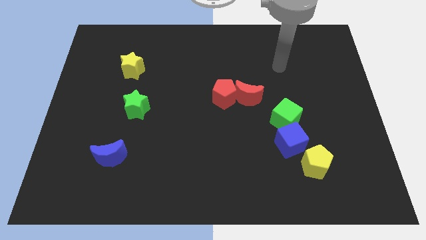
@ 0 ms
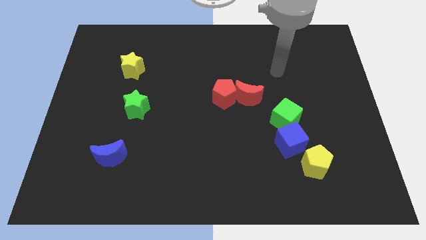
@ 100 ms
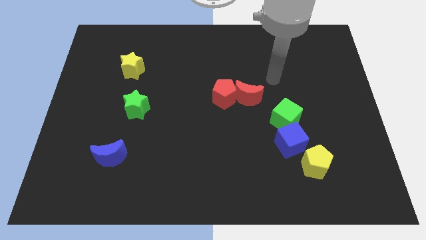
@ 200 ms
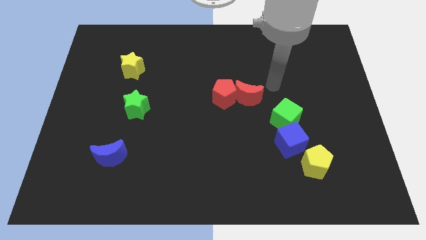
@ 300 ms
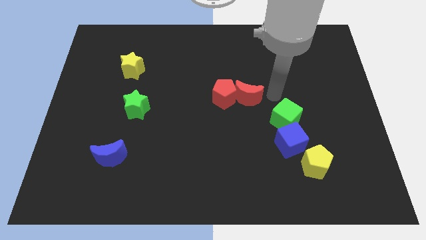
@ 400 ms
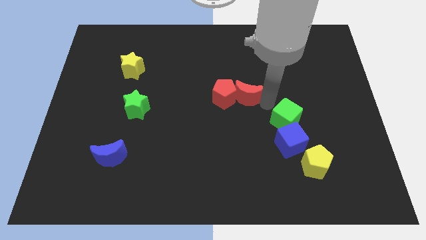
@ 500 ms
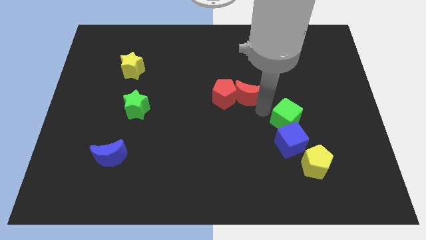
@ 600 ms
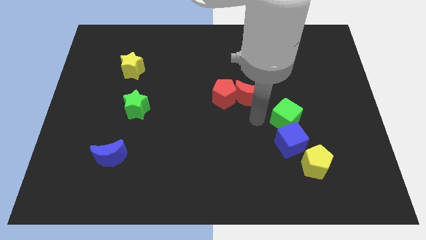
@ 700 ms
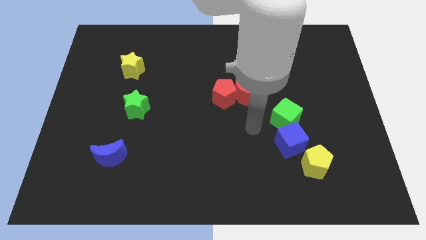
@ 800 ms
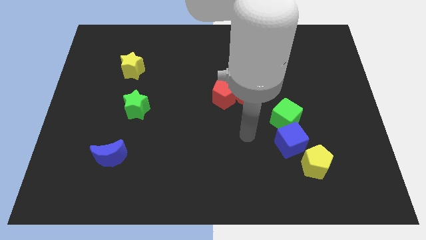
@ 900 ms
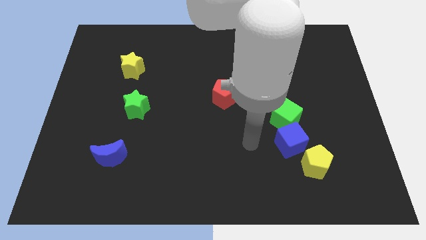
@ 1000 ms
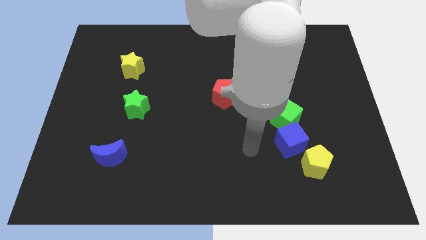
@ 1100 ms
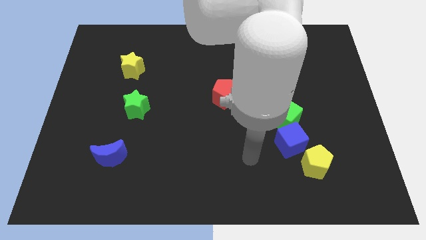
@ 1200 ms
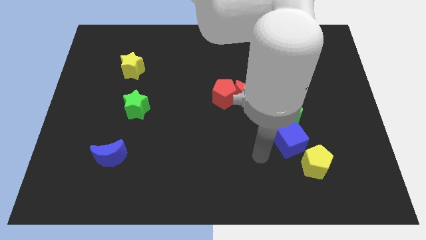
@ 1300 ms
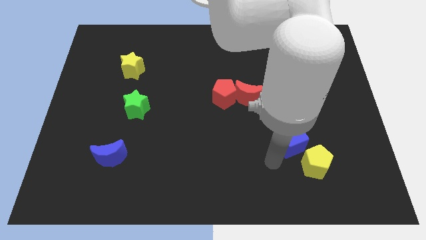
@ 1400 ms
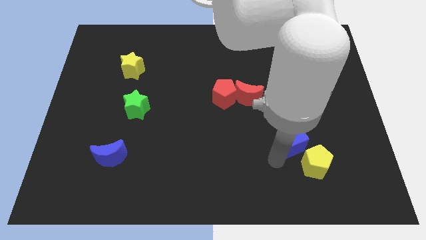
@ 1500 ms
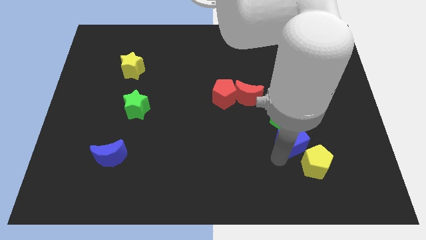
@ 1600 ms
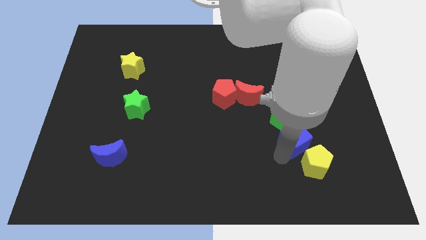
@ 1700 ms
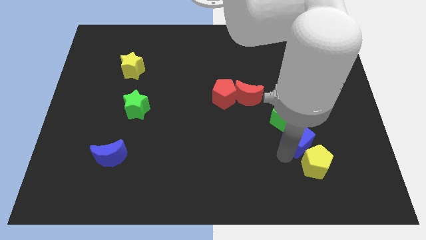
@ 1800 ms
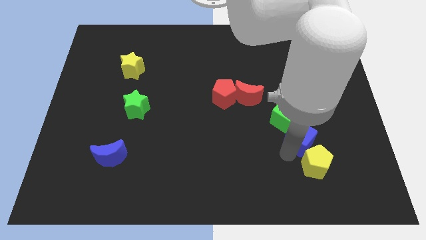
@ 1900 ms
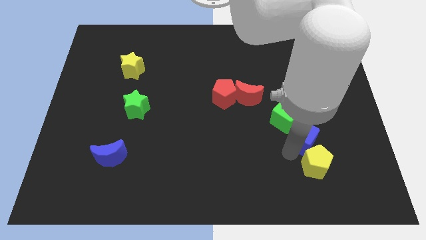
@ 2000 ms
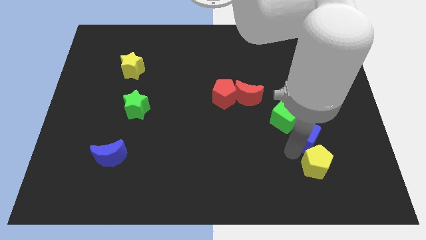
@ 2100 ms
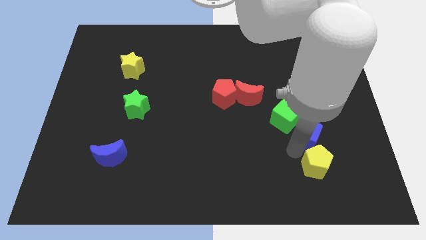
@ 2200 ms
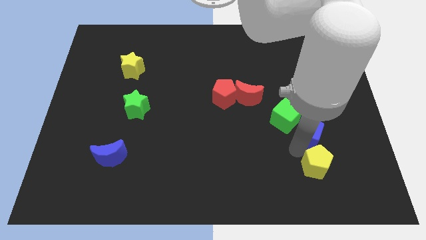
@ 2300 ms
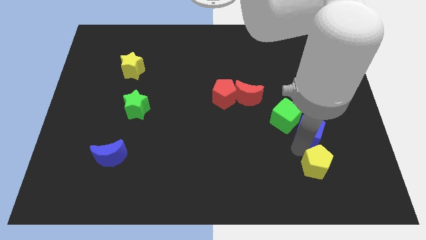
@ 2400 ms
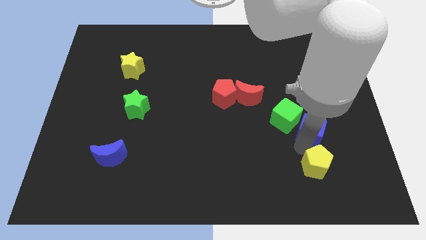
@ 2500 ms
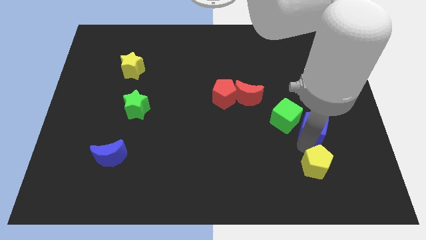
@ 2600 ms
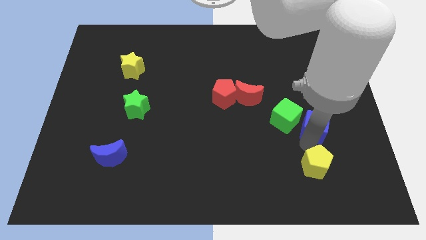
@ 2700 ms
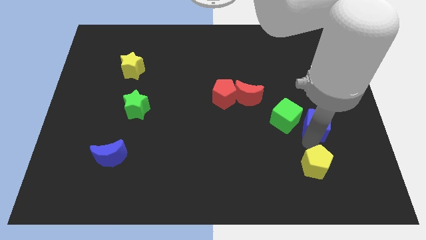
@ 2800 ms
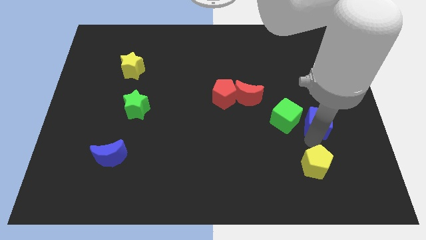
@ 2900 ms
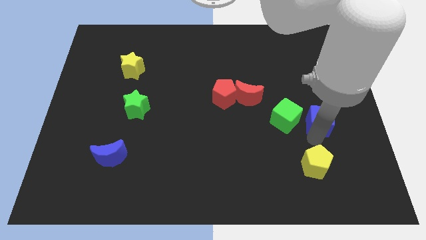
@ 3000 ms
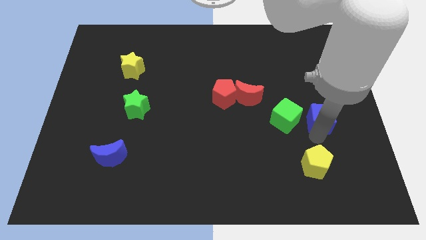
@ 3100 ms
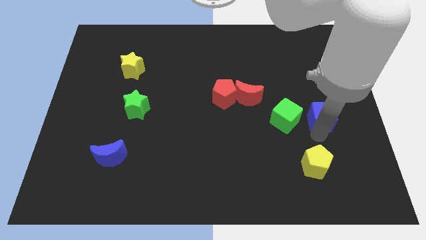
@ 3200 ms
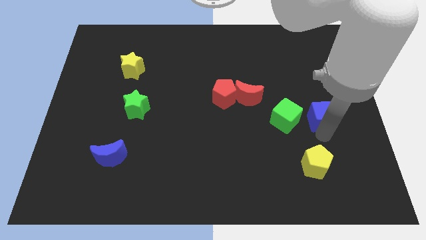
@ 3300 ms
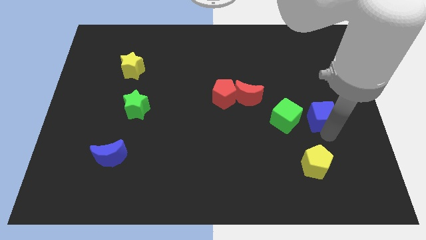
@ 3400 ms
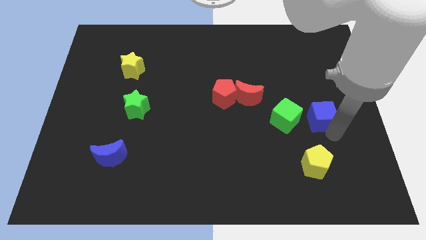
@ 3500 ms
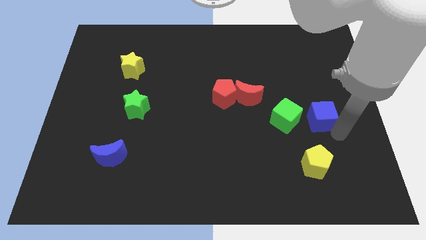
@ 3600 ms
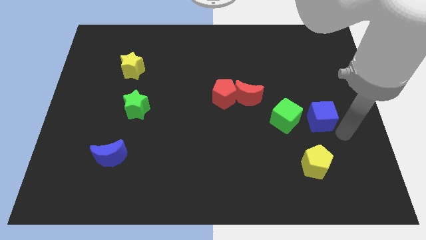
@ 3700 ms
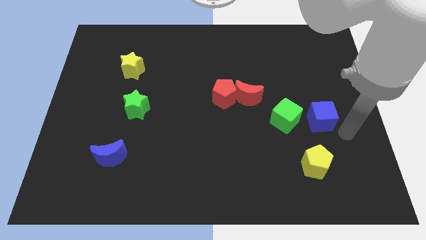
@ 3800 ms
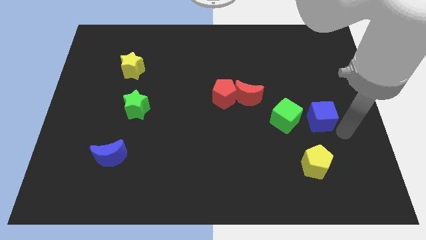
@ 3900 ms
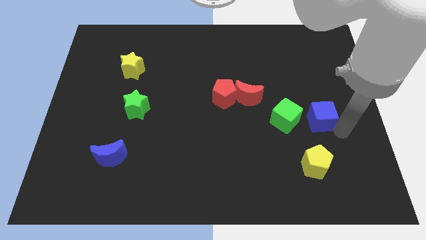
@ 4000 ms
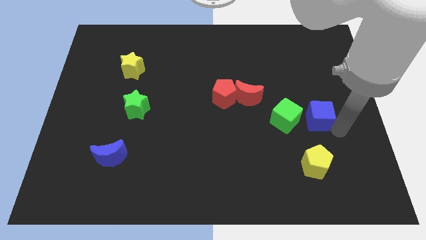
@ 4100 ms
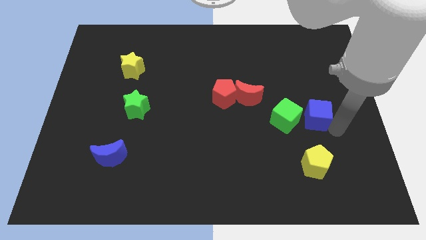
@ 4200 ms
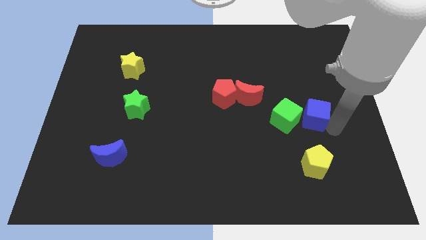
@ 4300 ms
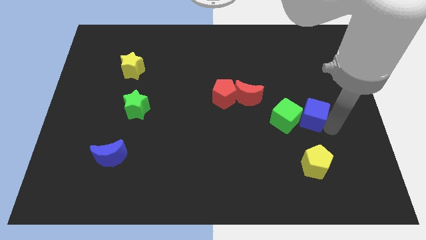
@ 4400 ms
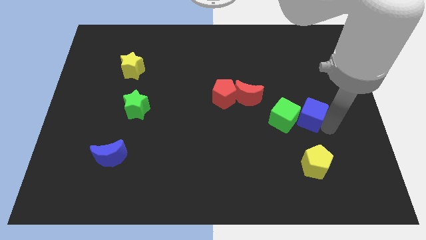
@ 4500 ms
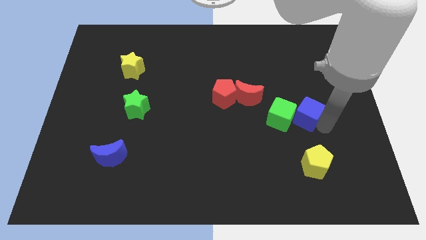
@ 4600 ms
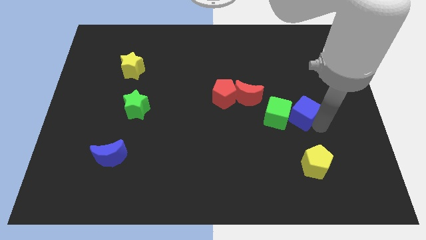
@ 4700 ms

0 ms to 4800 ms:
slightly push the blue cube up

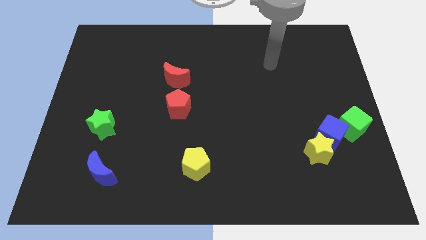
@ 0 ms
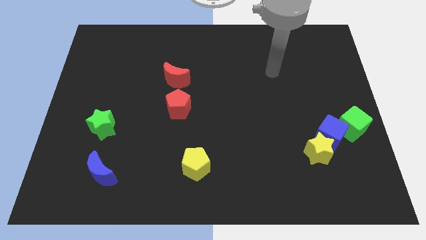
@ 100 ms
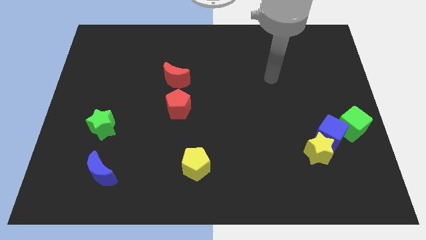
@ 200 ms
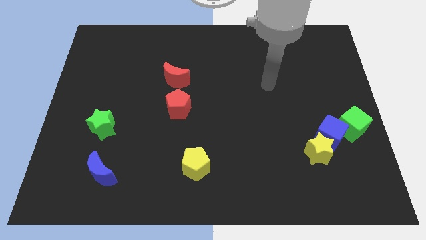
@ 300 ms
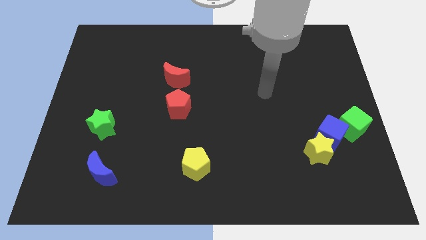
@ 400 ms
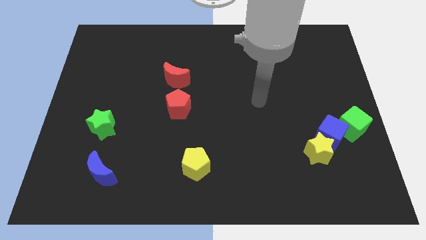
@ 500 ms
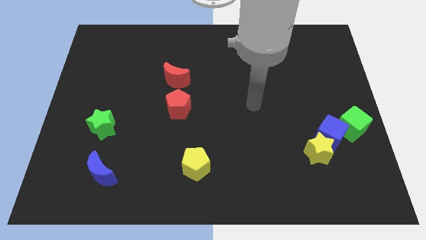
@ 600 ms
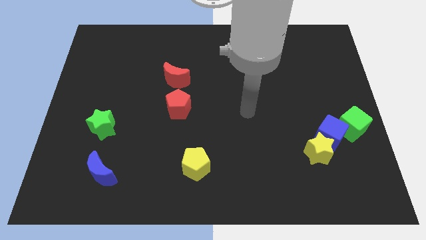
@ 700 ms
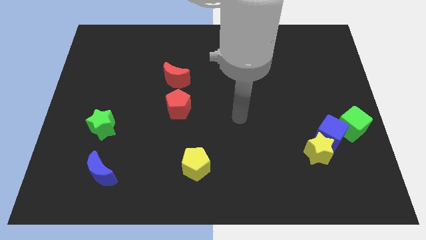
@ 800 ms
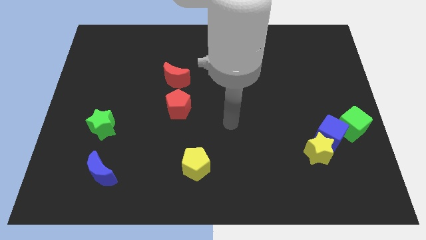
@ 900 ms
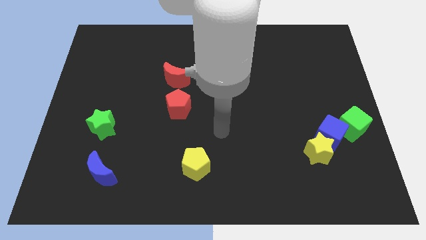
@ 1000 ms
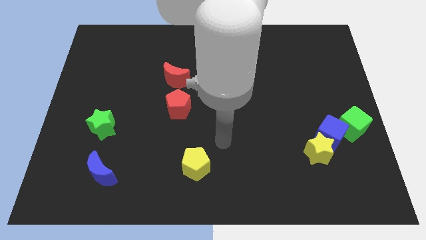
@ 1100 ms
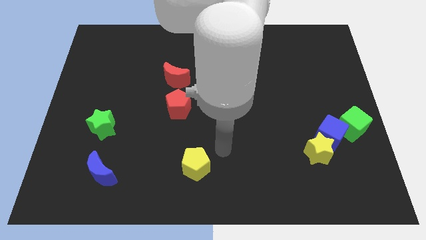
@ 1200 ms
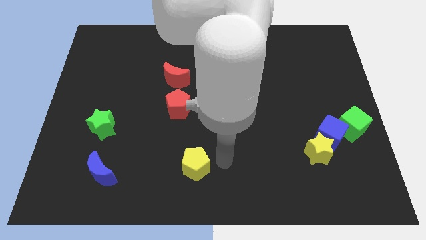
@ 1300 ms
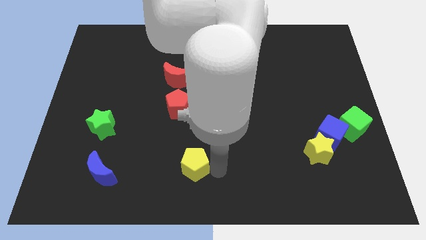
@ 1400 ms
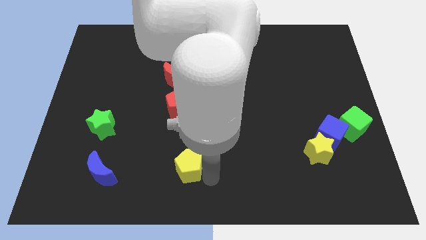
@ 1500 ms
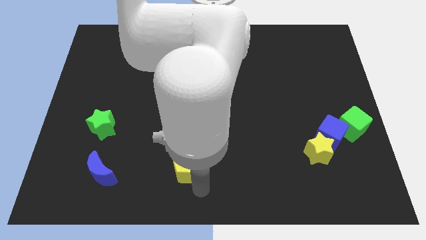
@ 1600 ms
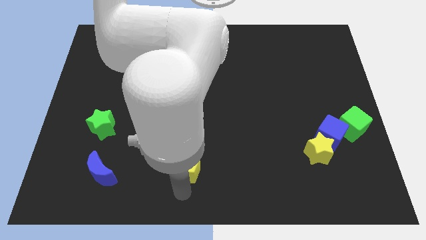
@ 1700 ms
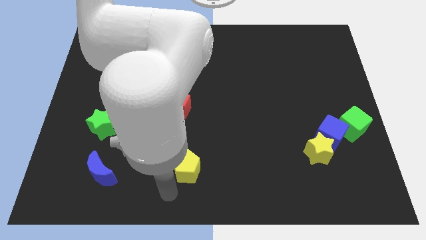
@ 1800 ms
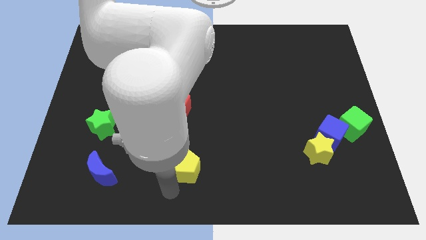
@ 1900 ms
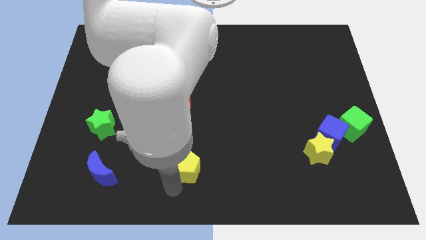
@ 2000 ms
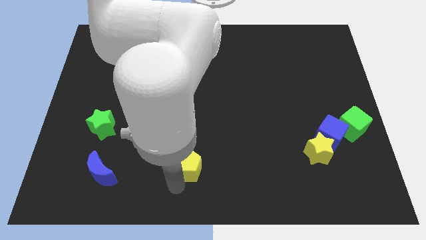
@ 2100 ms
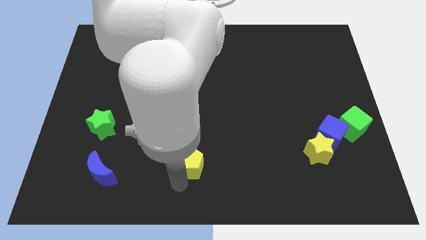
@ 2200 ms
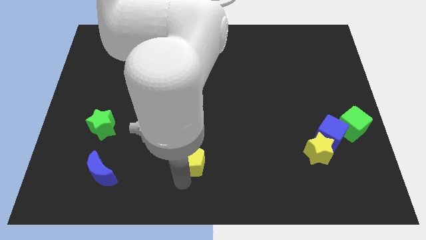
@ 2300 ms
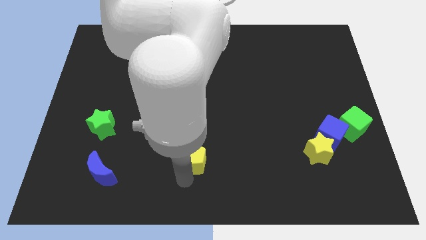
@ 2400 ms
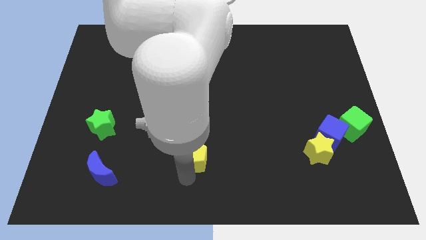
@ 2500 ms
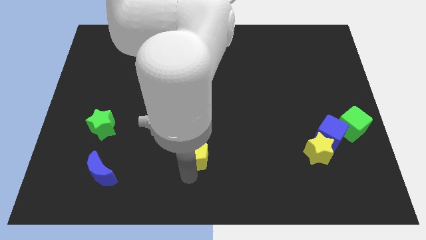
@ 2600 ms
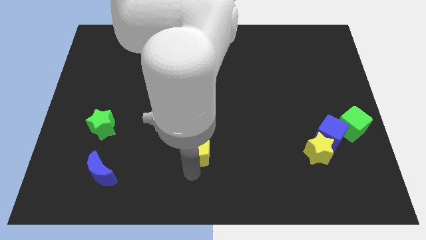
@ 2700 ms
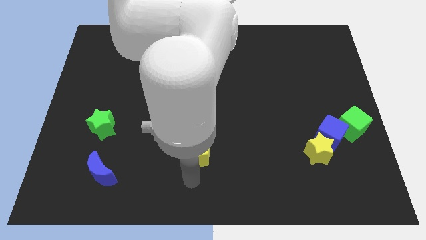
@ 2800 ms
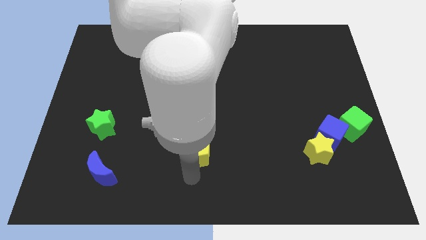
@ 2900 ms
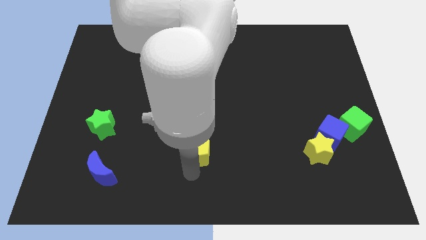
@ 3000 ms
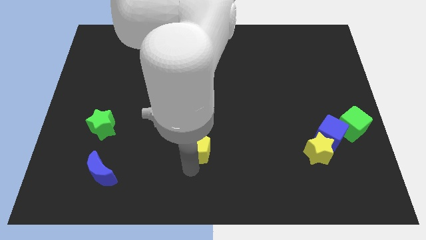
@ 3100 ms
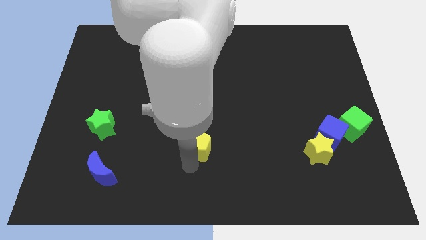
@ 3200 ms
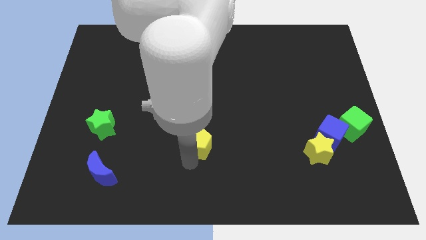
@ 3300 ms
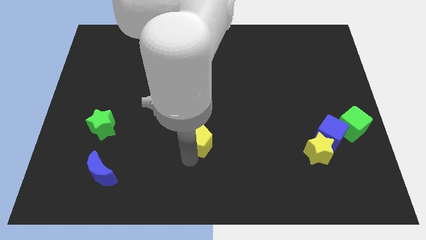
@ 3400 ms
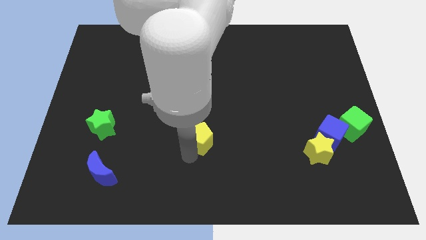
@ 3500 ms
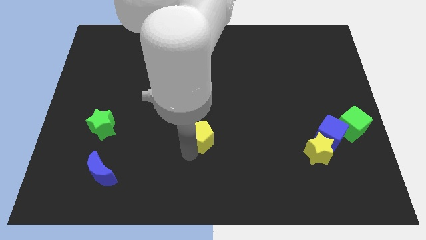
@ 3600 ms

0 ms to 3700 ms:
slide the yellow pentagon up a little bit
